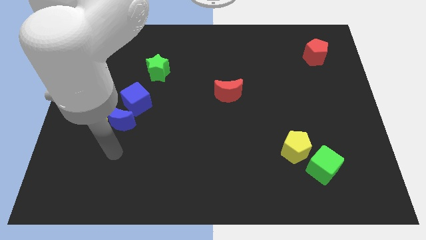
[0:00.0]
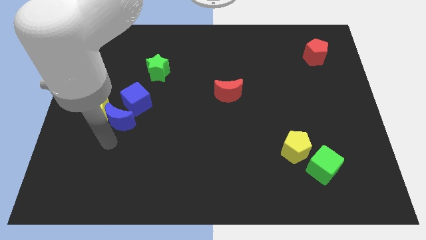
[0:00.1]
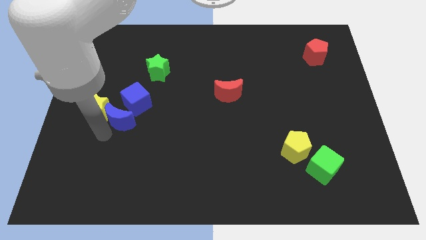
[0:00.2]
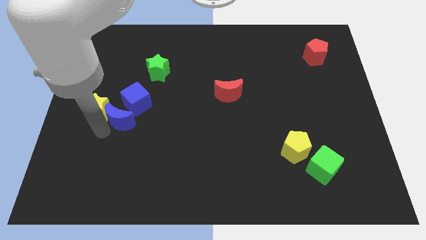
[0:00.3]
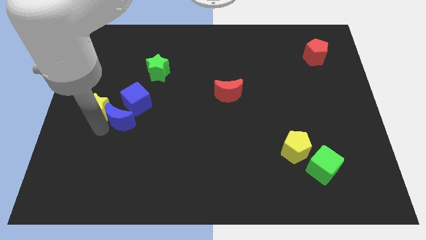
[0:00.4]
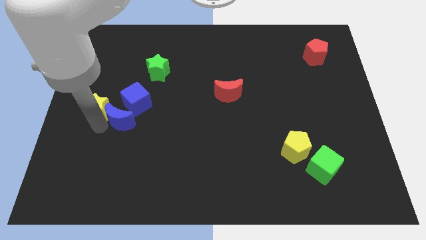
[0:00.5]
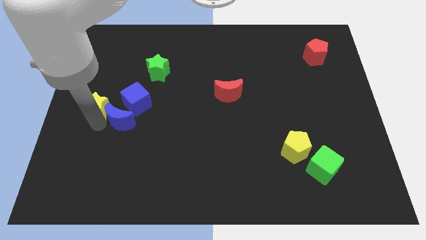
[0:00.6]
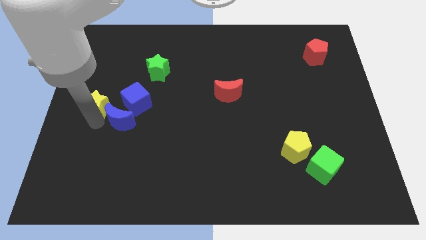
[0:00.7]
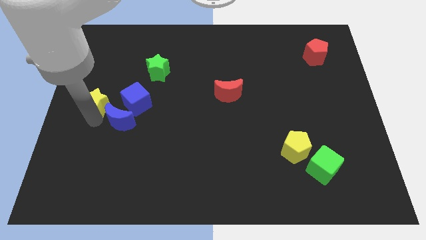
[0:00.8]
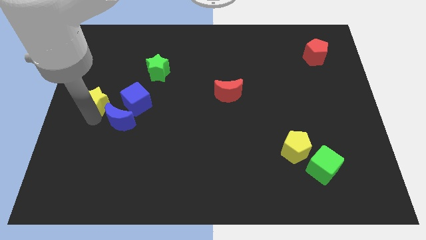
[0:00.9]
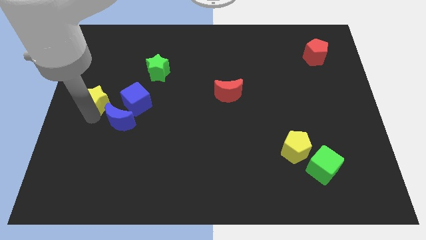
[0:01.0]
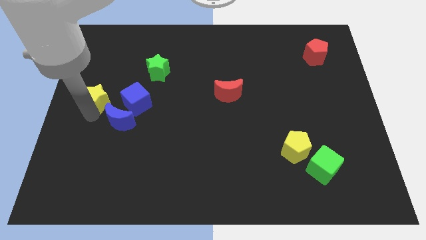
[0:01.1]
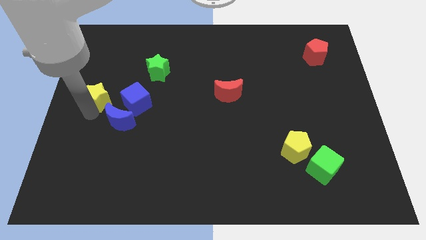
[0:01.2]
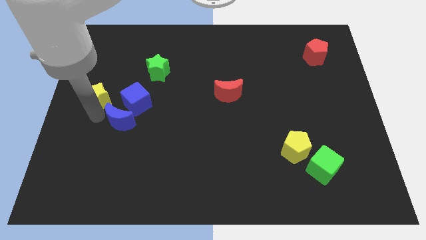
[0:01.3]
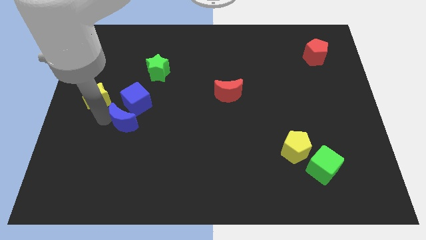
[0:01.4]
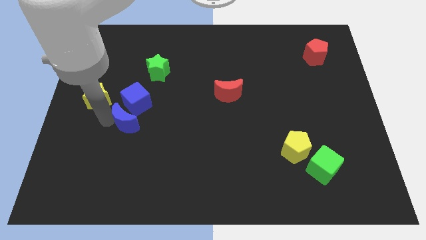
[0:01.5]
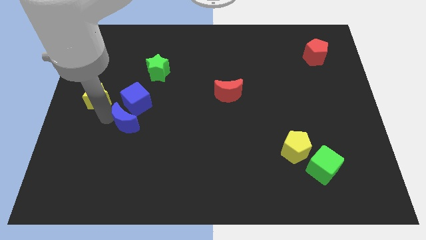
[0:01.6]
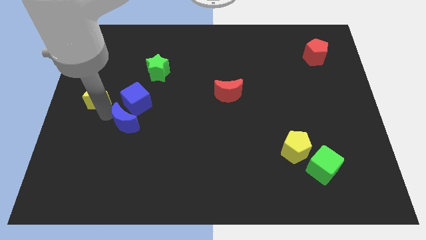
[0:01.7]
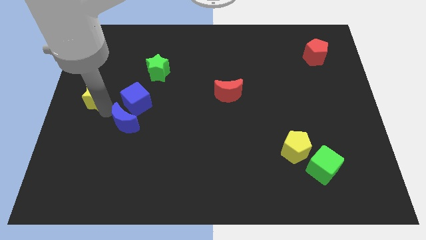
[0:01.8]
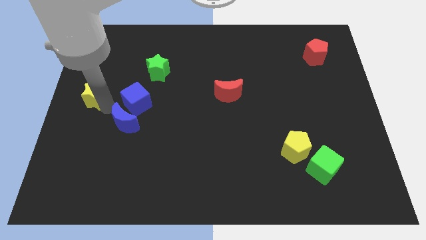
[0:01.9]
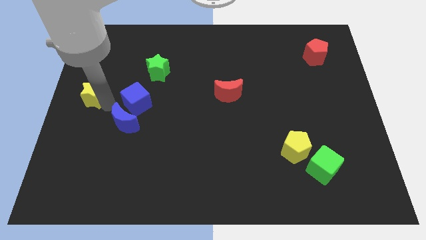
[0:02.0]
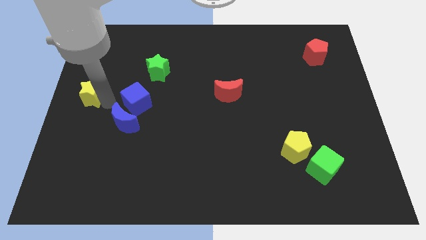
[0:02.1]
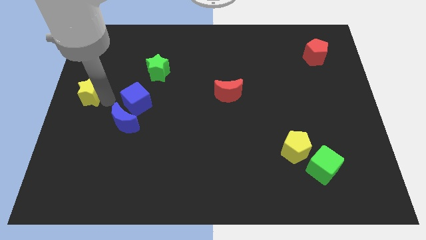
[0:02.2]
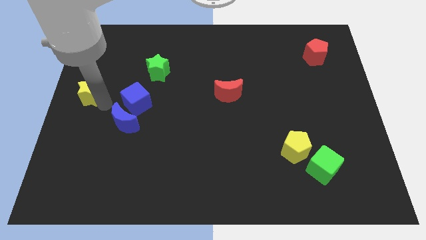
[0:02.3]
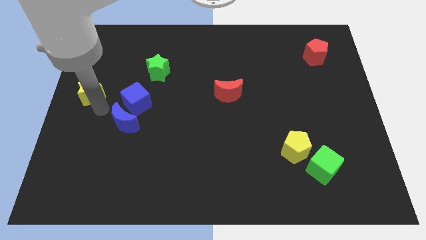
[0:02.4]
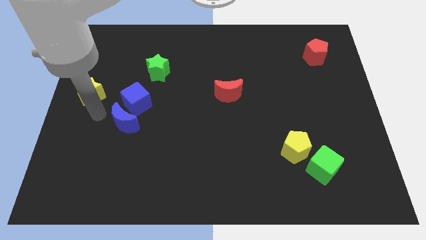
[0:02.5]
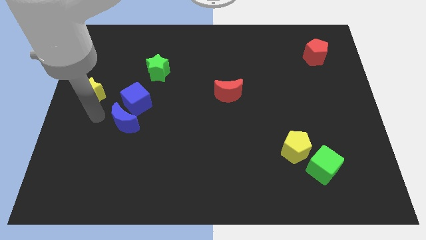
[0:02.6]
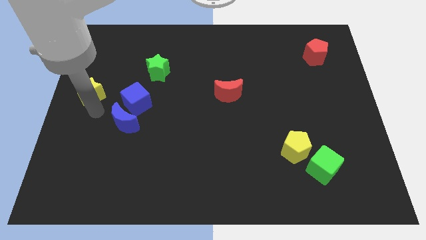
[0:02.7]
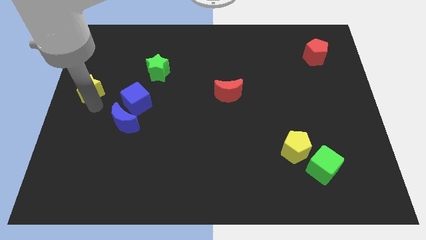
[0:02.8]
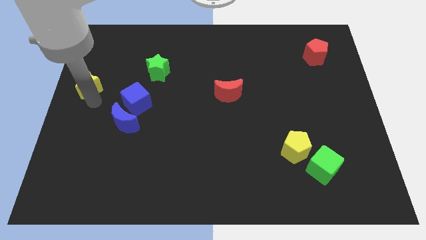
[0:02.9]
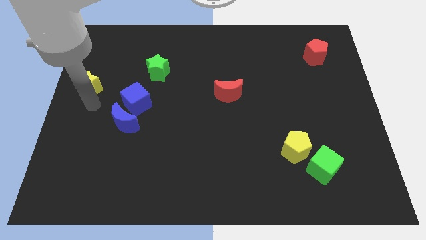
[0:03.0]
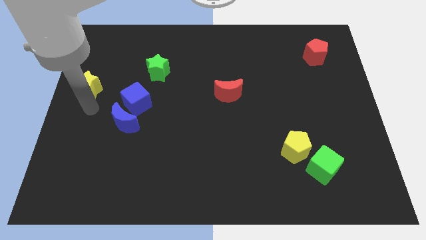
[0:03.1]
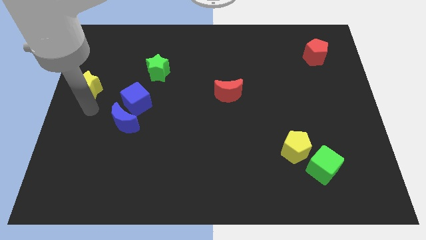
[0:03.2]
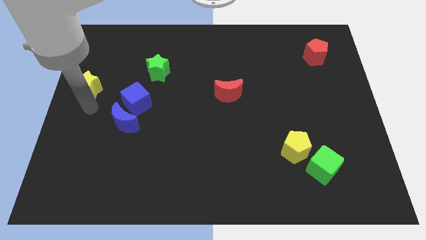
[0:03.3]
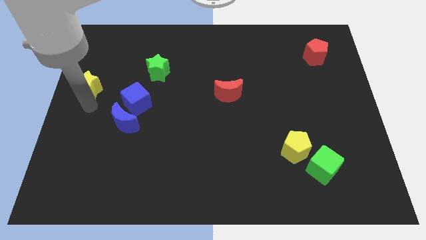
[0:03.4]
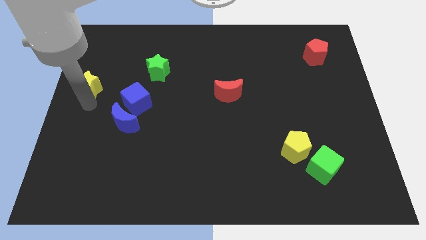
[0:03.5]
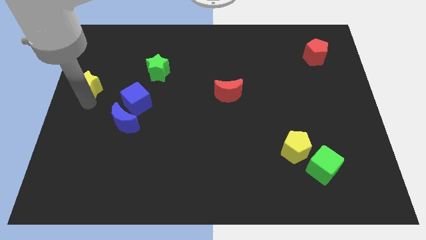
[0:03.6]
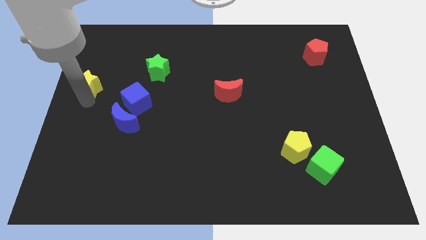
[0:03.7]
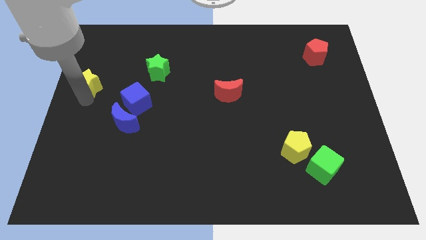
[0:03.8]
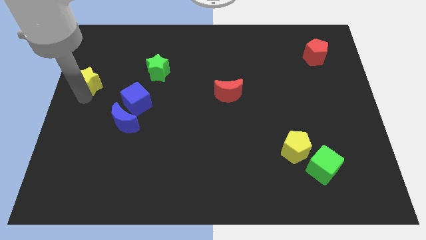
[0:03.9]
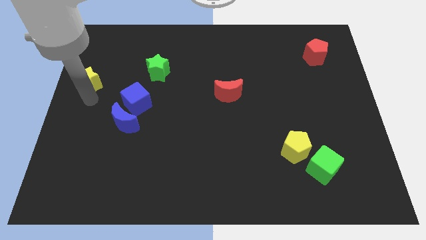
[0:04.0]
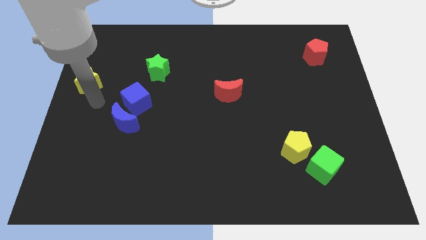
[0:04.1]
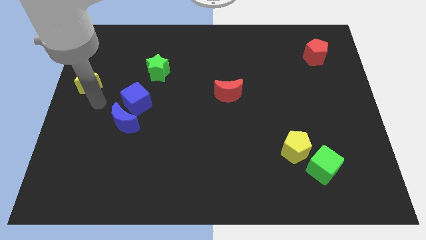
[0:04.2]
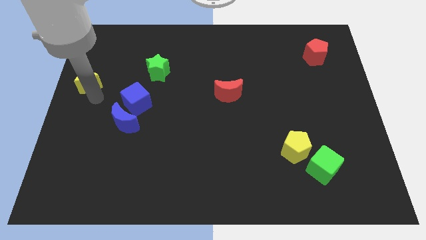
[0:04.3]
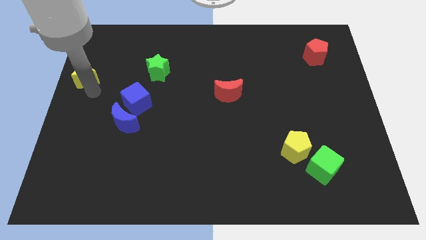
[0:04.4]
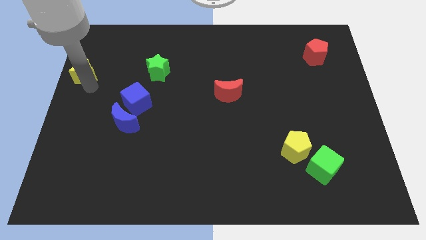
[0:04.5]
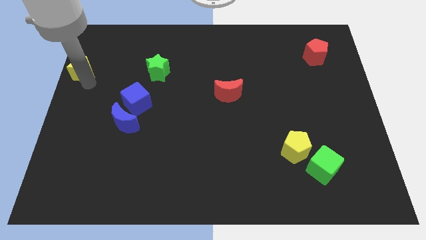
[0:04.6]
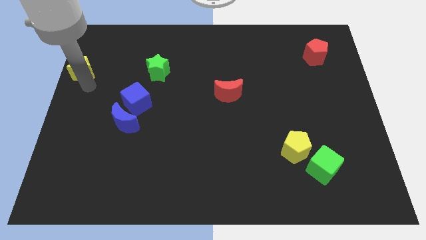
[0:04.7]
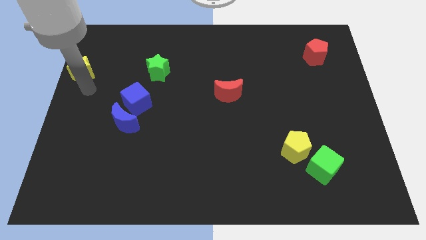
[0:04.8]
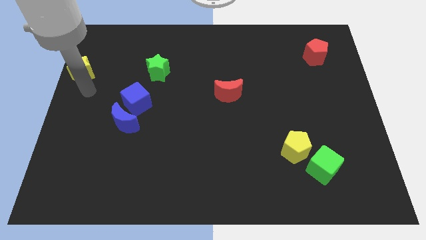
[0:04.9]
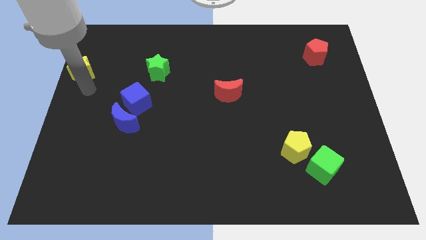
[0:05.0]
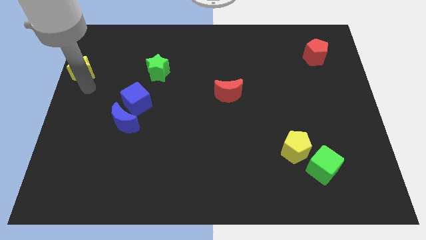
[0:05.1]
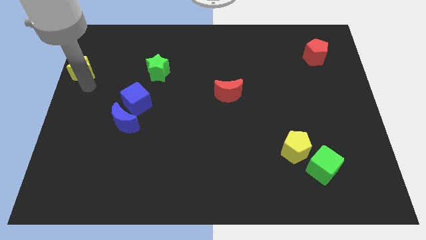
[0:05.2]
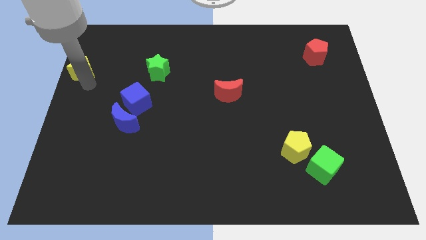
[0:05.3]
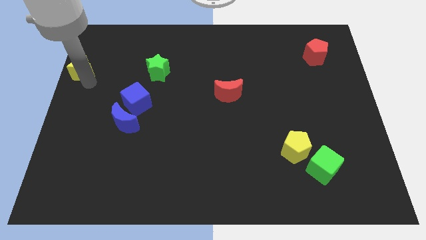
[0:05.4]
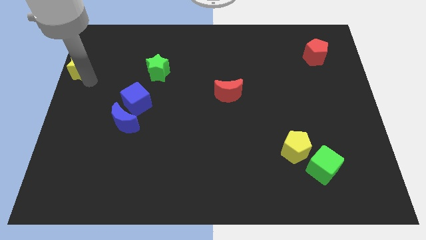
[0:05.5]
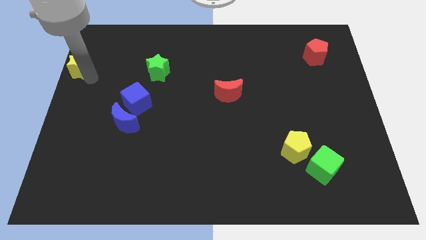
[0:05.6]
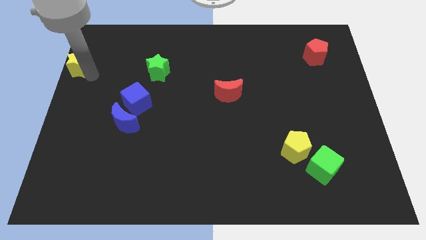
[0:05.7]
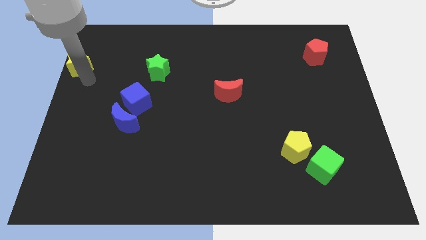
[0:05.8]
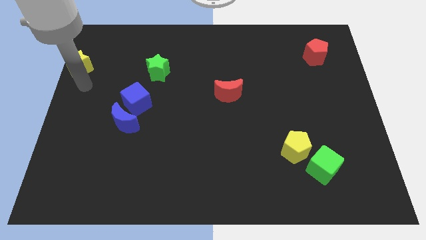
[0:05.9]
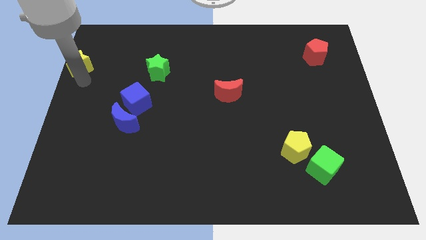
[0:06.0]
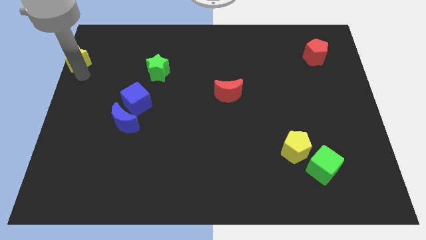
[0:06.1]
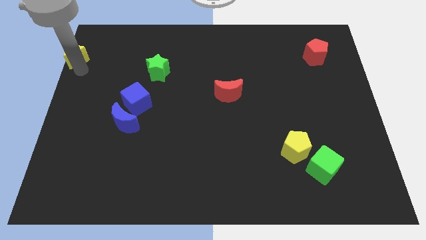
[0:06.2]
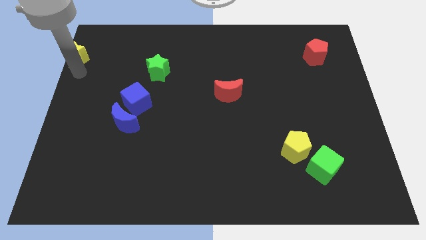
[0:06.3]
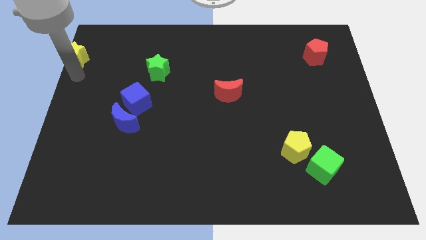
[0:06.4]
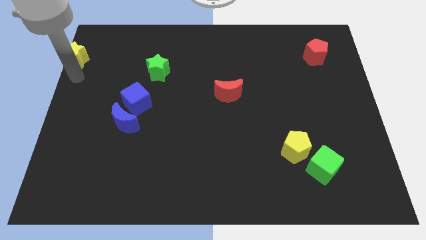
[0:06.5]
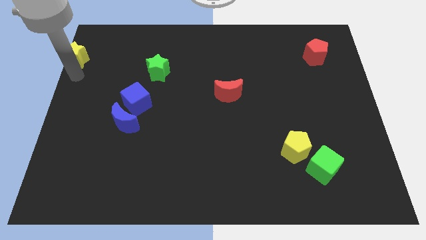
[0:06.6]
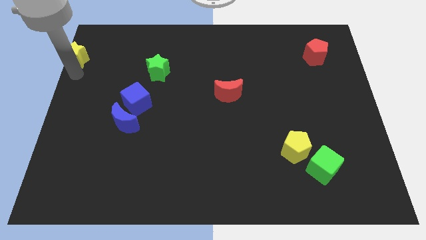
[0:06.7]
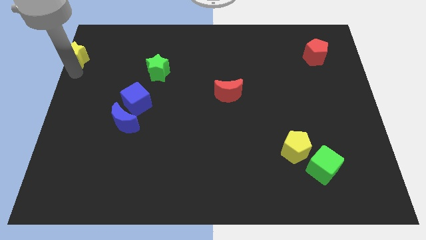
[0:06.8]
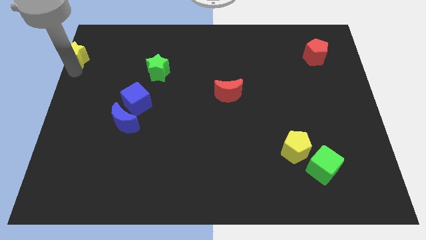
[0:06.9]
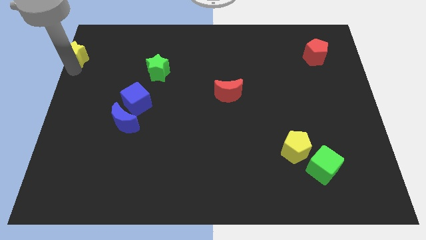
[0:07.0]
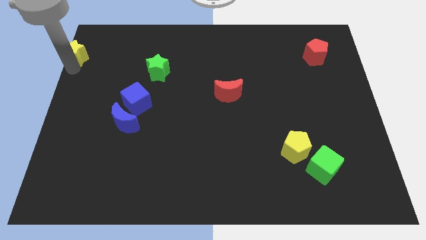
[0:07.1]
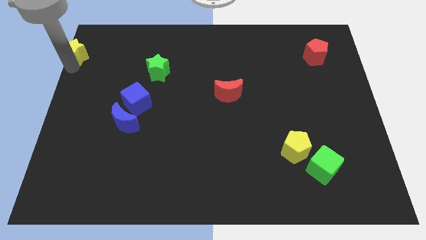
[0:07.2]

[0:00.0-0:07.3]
slide the yellow star to the top left

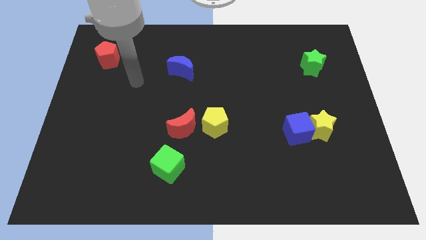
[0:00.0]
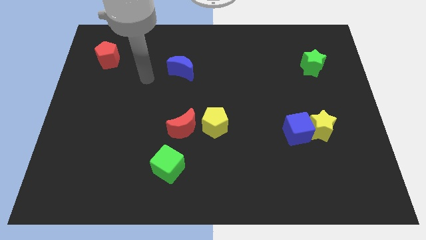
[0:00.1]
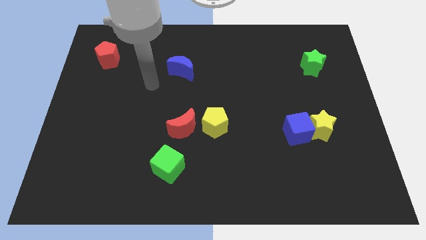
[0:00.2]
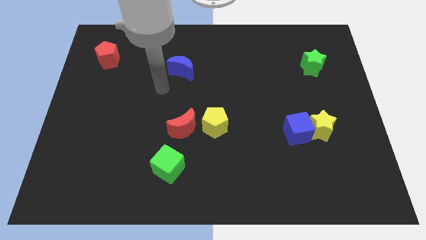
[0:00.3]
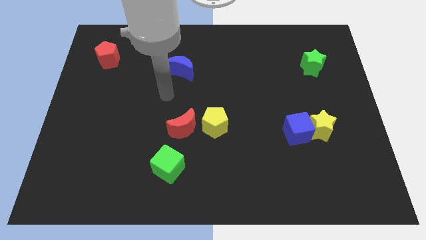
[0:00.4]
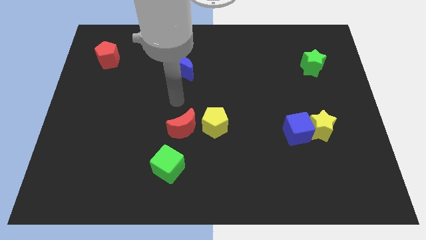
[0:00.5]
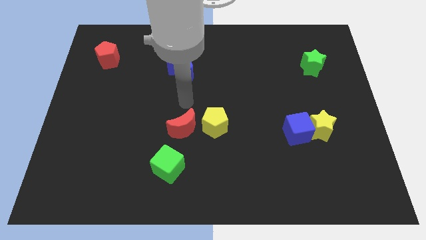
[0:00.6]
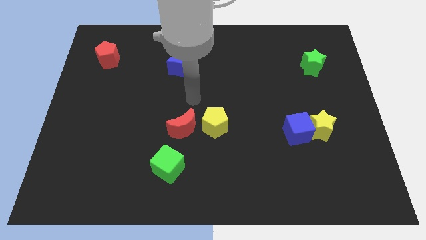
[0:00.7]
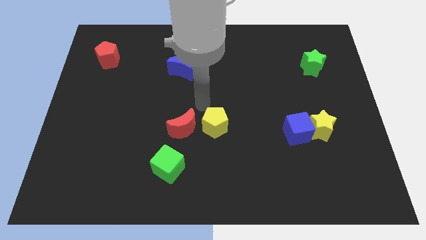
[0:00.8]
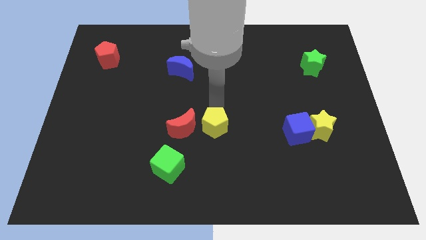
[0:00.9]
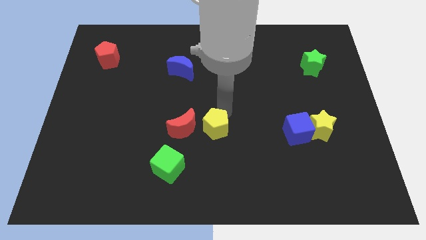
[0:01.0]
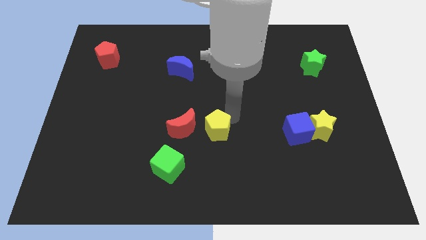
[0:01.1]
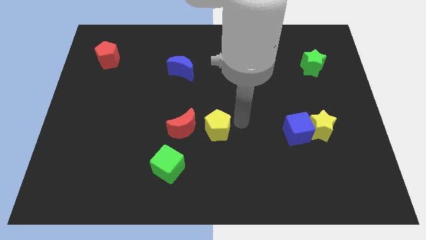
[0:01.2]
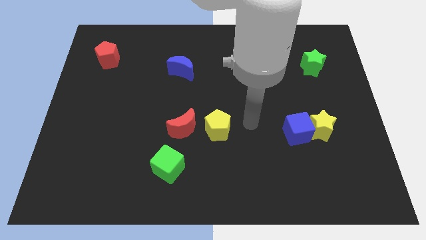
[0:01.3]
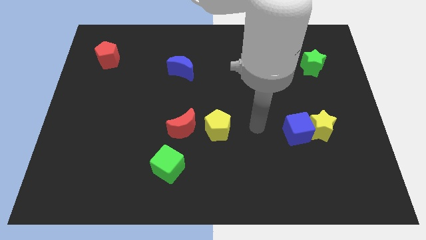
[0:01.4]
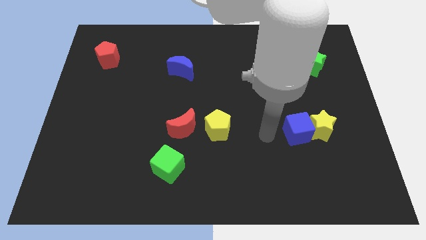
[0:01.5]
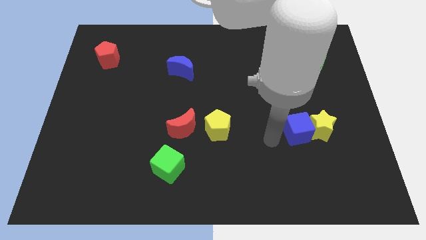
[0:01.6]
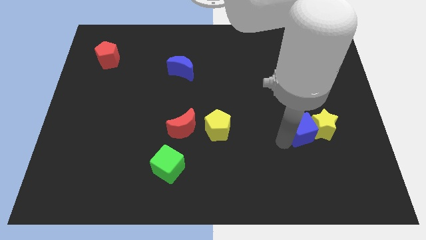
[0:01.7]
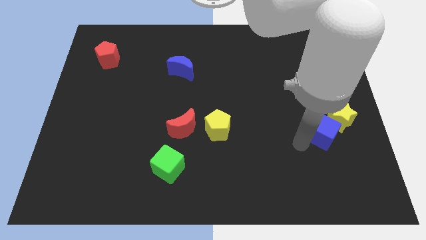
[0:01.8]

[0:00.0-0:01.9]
push the yellow star to the center right
